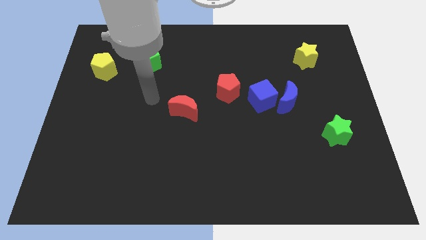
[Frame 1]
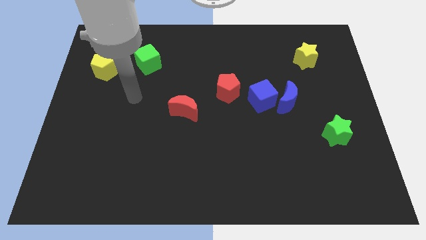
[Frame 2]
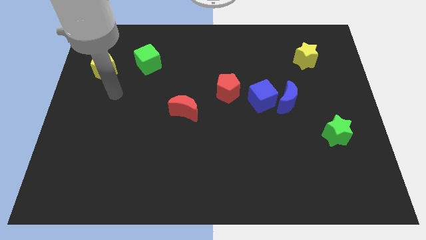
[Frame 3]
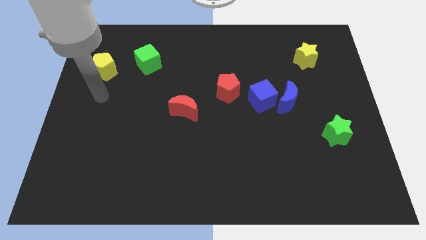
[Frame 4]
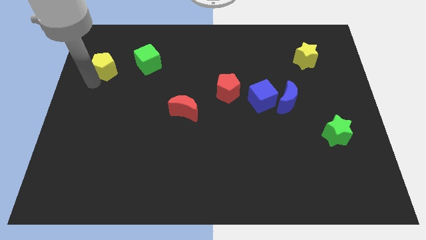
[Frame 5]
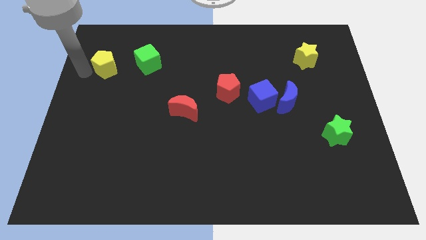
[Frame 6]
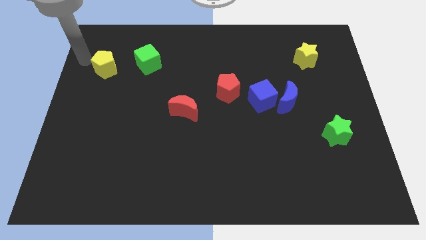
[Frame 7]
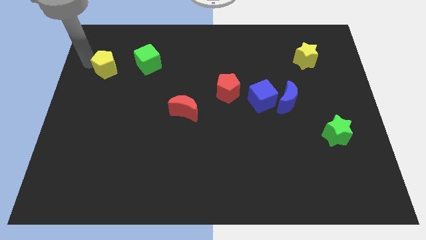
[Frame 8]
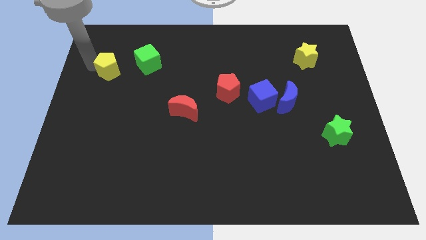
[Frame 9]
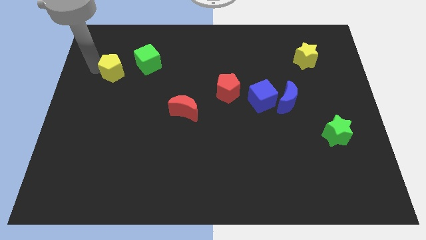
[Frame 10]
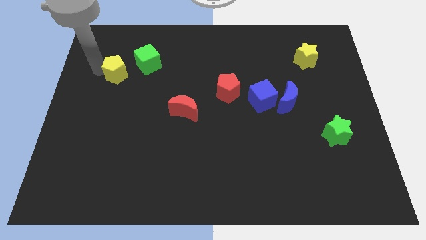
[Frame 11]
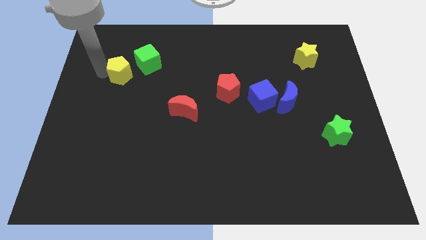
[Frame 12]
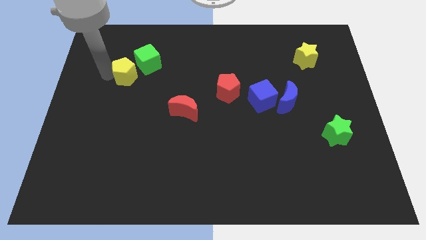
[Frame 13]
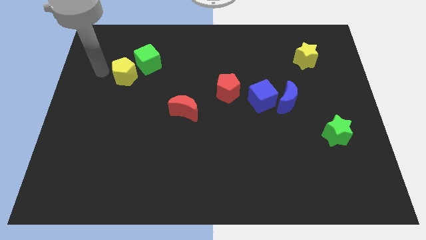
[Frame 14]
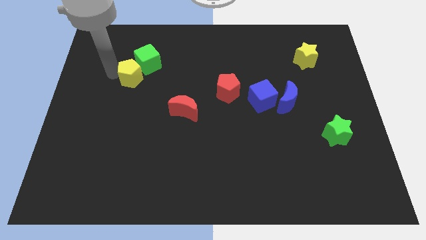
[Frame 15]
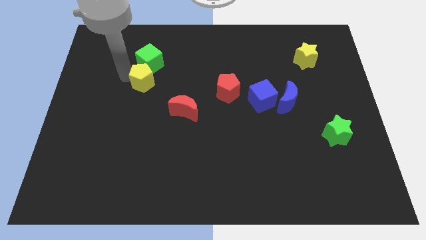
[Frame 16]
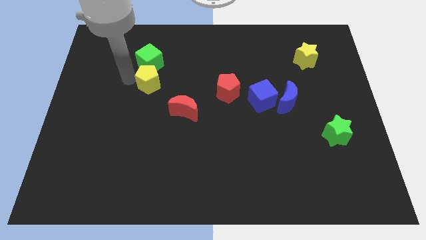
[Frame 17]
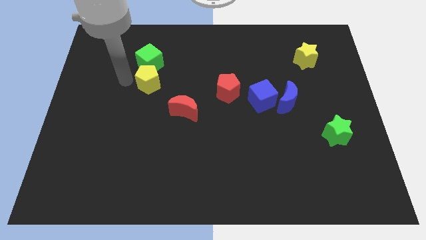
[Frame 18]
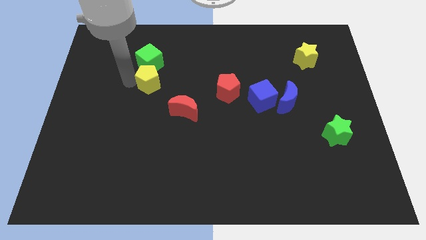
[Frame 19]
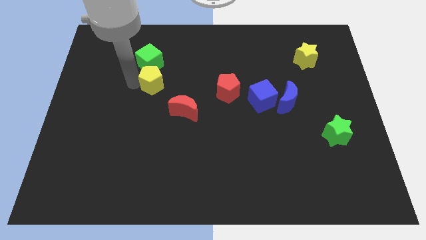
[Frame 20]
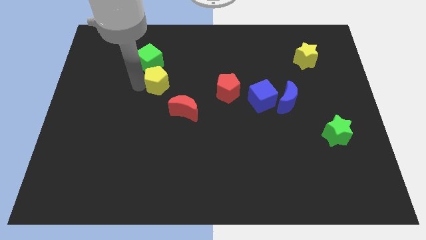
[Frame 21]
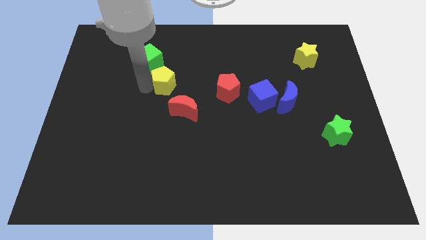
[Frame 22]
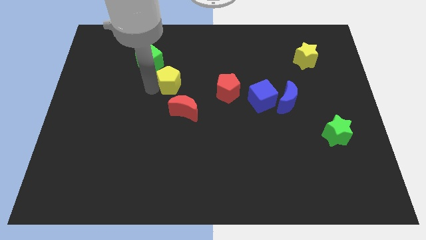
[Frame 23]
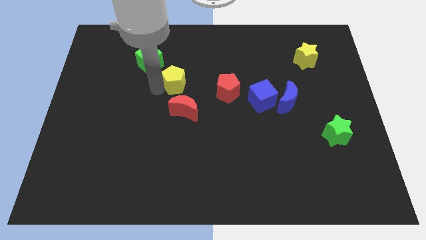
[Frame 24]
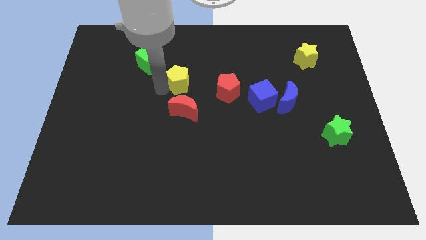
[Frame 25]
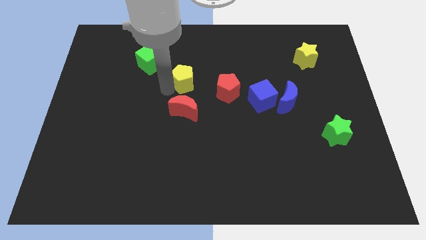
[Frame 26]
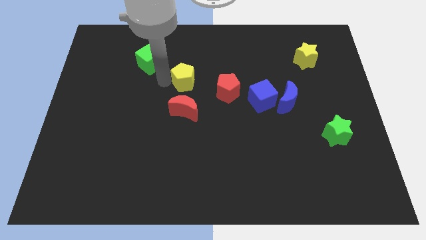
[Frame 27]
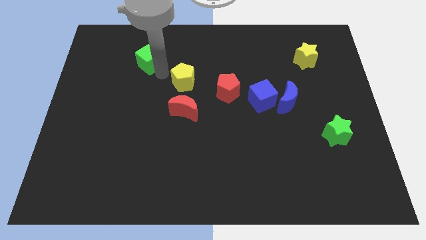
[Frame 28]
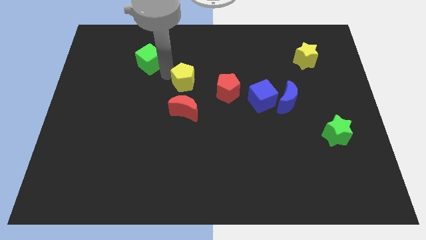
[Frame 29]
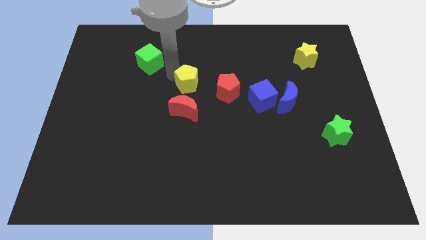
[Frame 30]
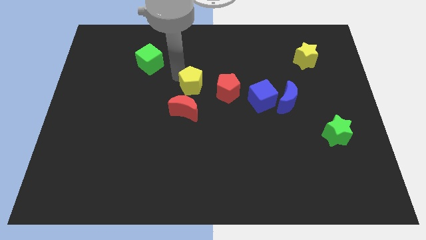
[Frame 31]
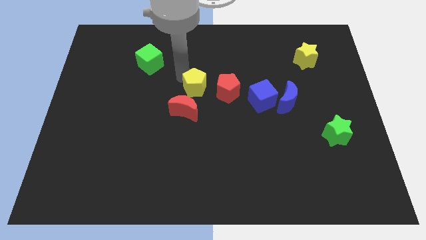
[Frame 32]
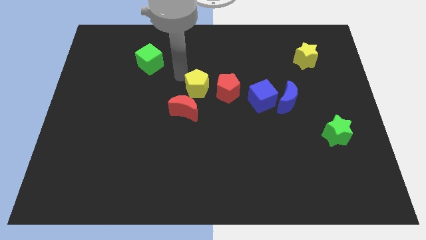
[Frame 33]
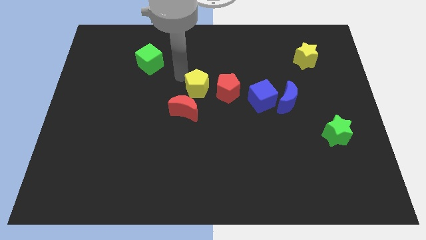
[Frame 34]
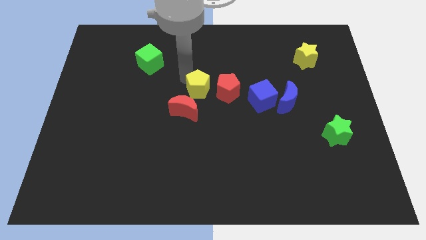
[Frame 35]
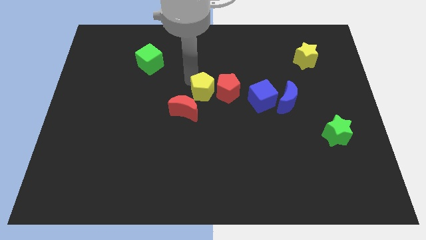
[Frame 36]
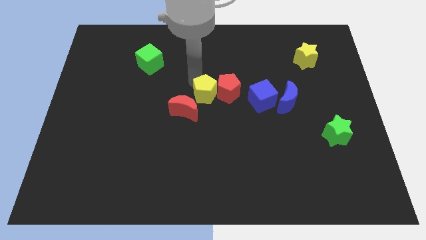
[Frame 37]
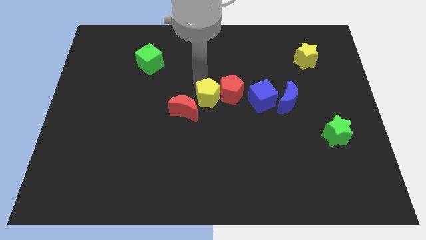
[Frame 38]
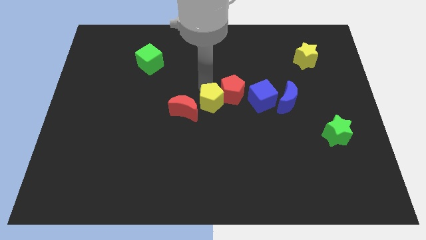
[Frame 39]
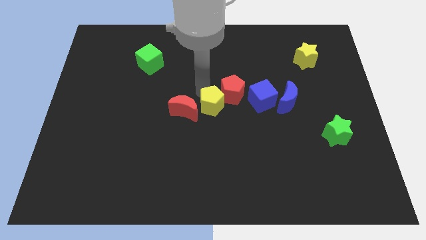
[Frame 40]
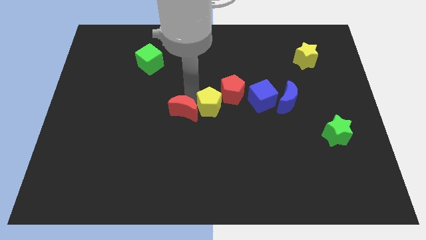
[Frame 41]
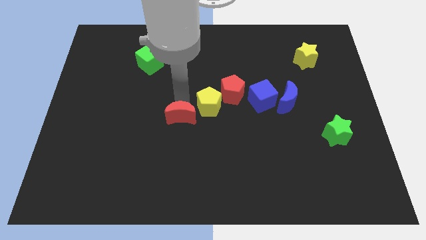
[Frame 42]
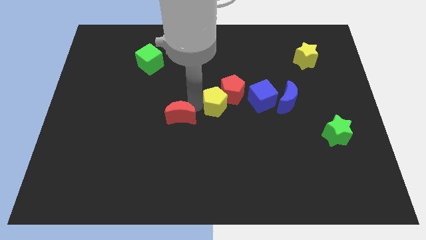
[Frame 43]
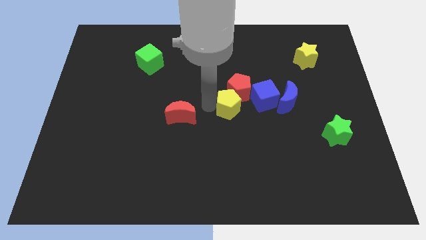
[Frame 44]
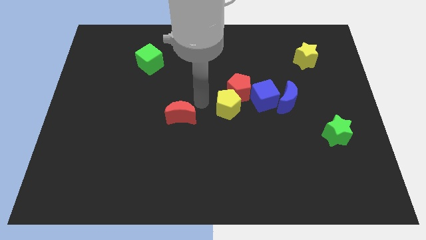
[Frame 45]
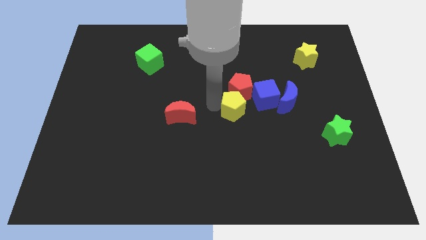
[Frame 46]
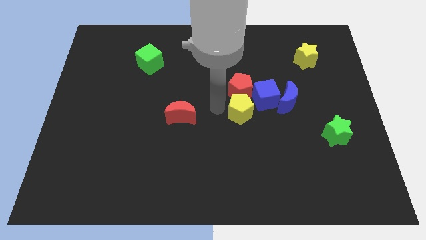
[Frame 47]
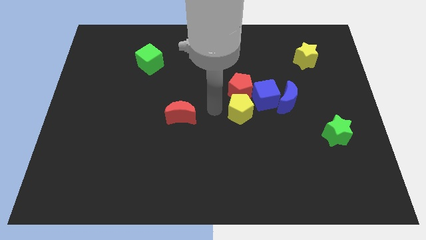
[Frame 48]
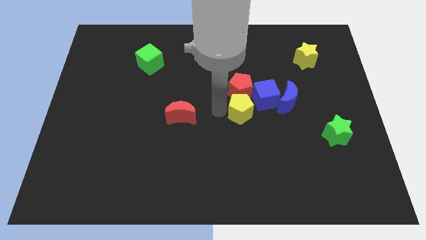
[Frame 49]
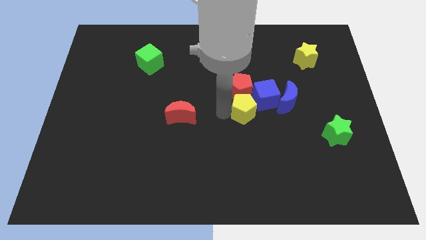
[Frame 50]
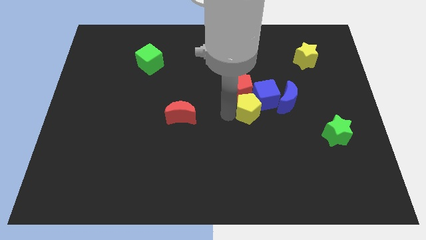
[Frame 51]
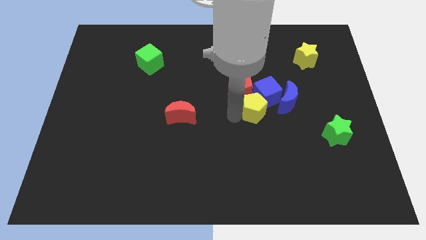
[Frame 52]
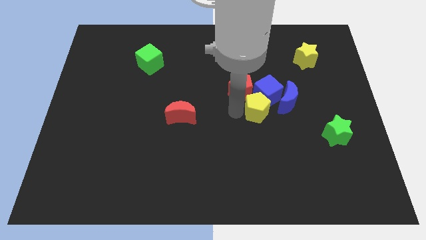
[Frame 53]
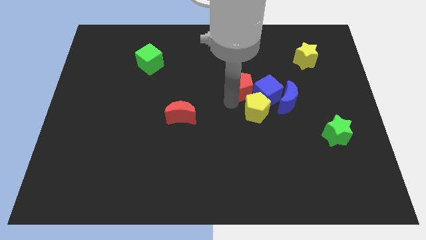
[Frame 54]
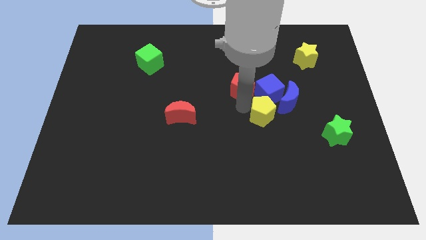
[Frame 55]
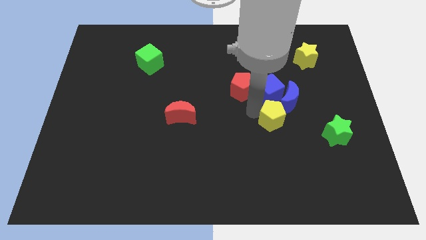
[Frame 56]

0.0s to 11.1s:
slide the yellow pentagon just left of the green star

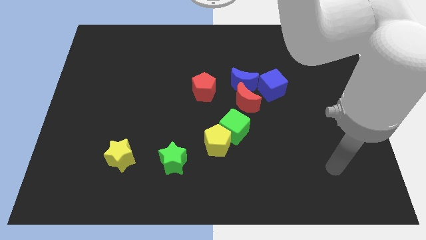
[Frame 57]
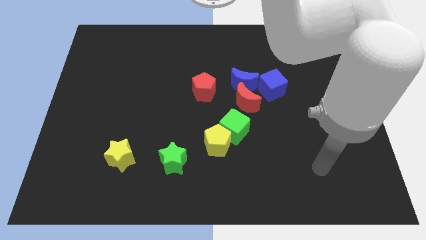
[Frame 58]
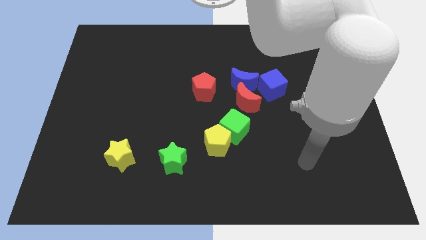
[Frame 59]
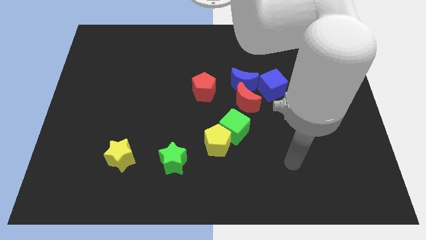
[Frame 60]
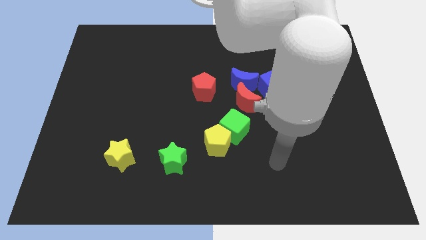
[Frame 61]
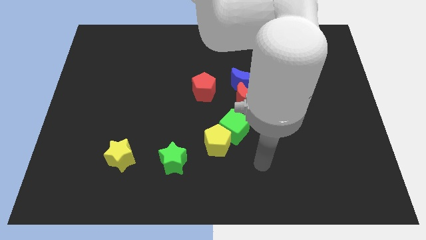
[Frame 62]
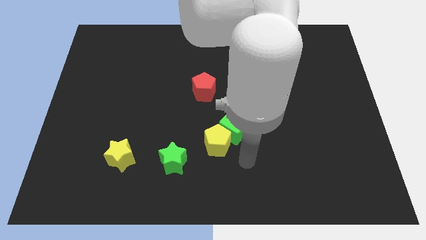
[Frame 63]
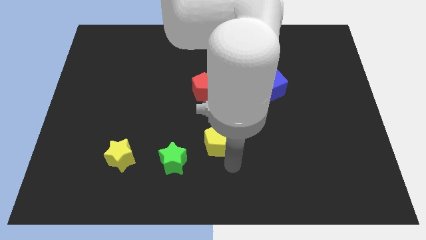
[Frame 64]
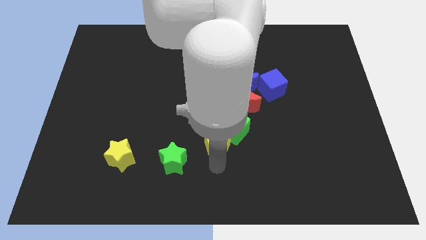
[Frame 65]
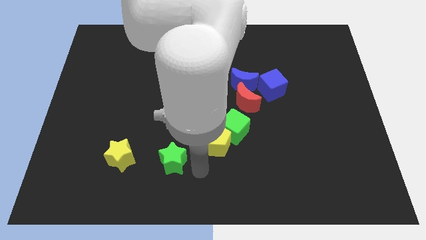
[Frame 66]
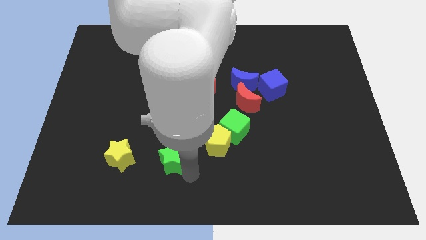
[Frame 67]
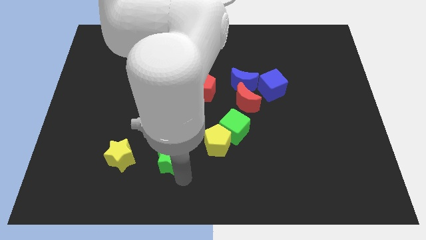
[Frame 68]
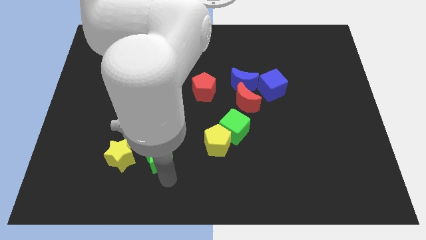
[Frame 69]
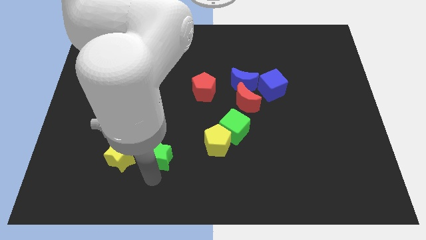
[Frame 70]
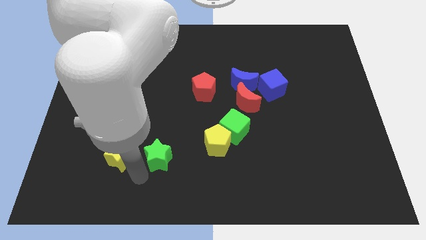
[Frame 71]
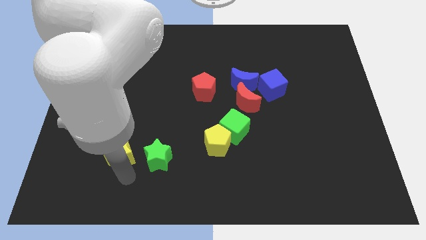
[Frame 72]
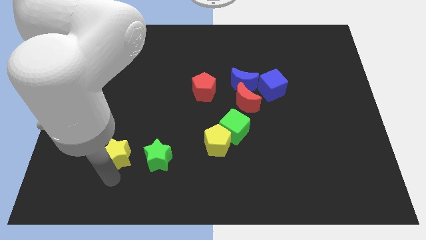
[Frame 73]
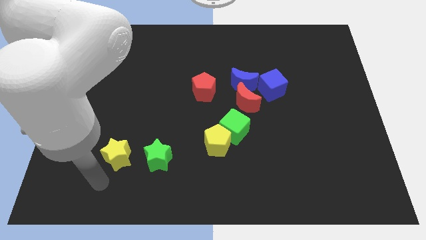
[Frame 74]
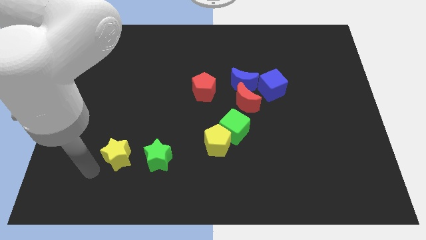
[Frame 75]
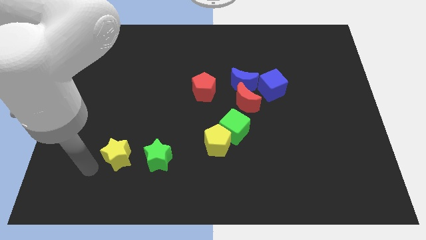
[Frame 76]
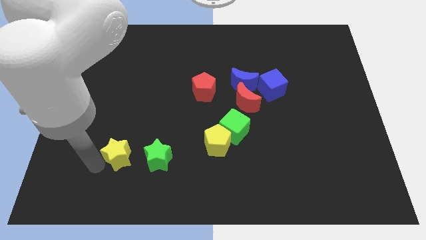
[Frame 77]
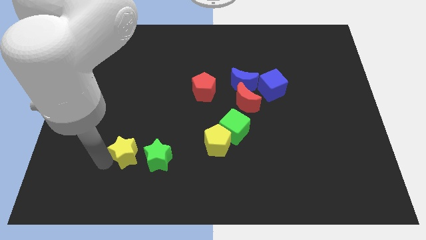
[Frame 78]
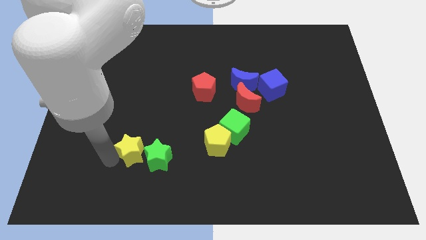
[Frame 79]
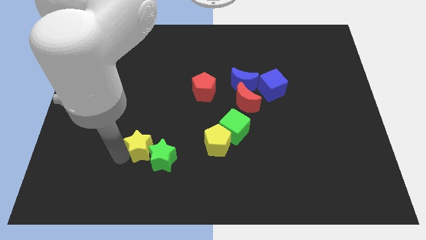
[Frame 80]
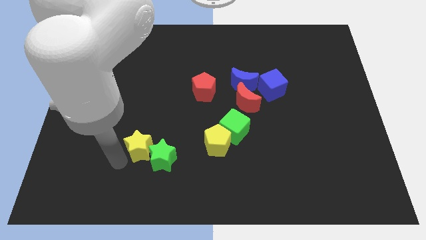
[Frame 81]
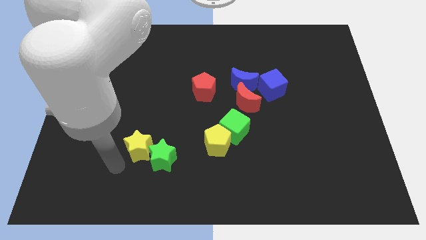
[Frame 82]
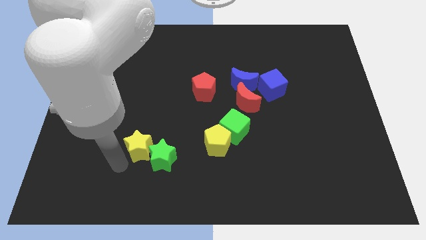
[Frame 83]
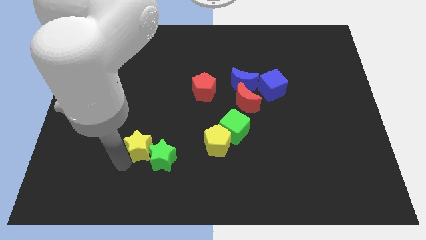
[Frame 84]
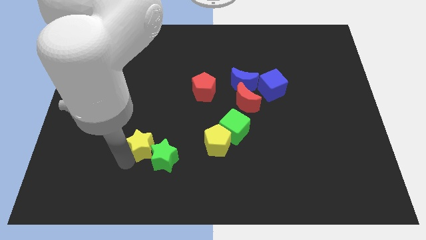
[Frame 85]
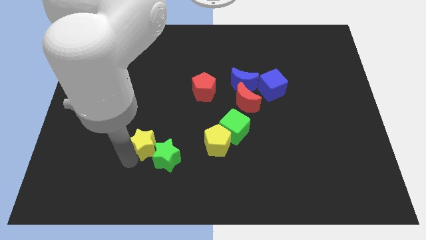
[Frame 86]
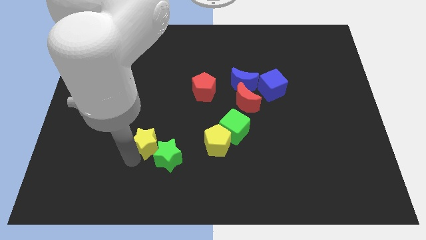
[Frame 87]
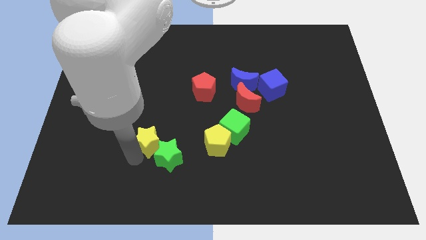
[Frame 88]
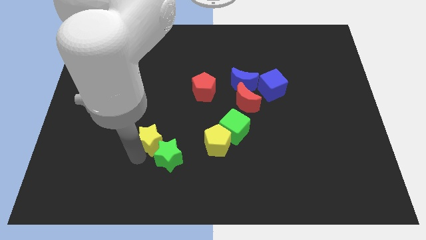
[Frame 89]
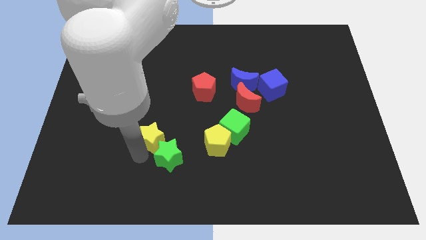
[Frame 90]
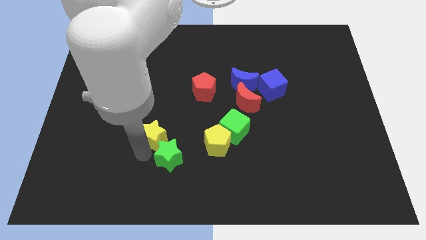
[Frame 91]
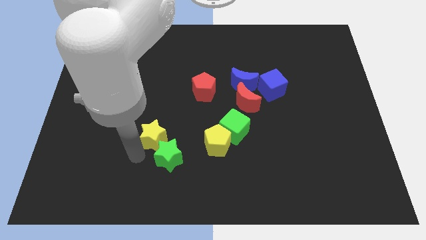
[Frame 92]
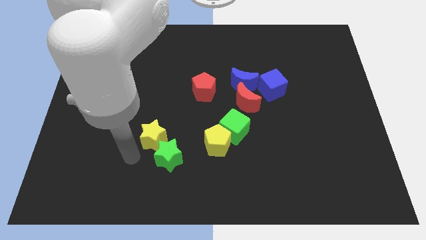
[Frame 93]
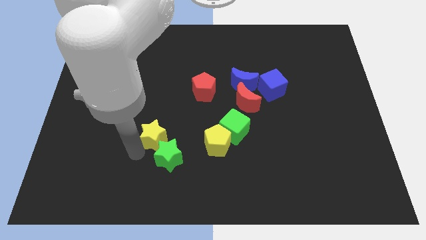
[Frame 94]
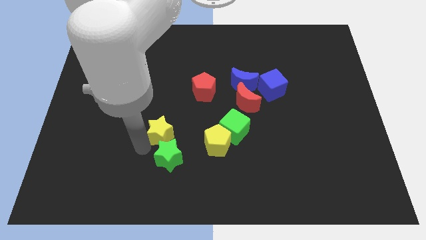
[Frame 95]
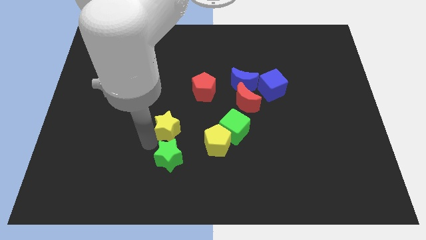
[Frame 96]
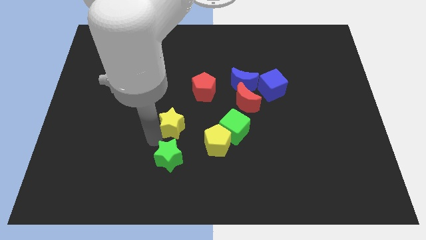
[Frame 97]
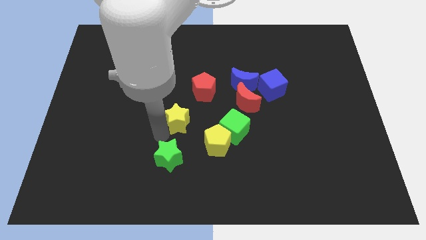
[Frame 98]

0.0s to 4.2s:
slide the yellow star diagonally down and to the left of the red pentagon
